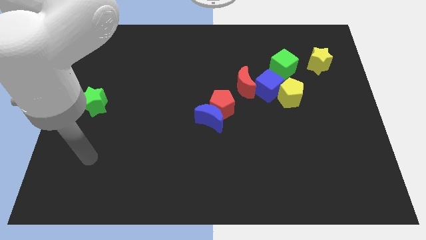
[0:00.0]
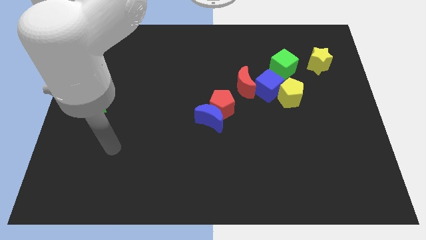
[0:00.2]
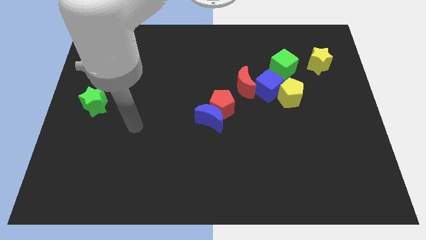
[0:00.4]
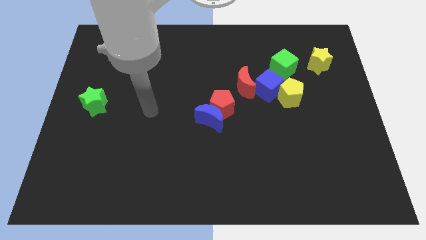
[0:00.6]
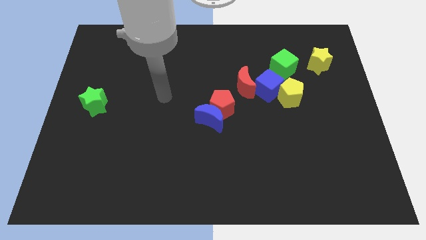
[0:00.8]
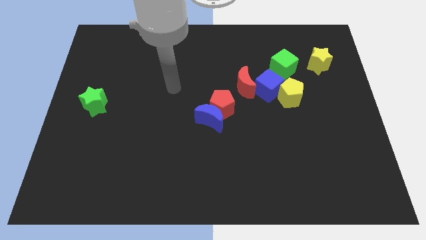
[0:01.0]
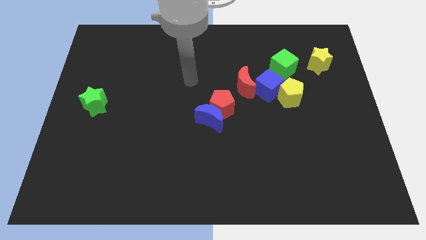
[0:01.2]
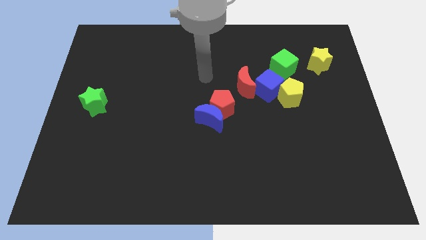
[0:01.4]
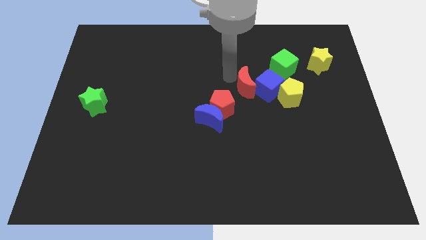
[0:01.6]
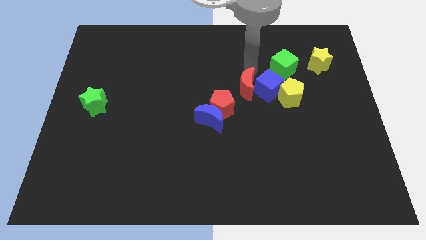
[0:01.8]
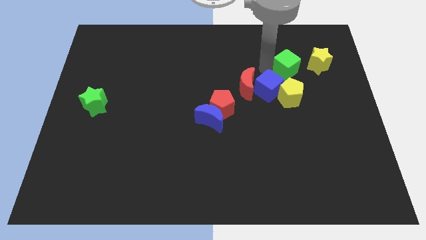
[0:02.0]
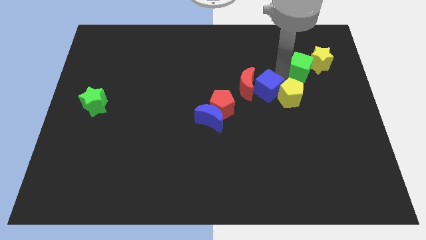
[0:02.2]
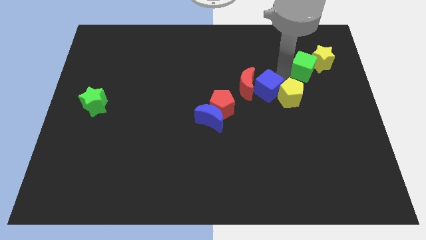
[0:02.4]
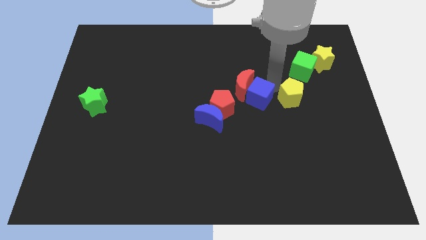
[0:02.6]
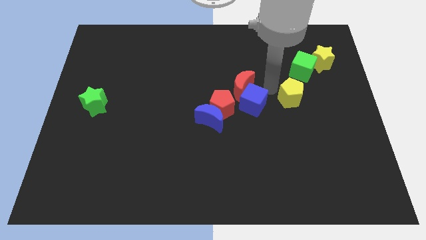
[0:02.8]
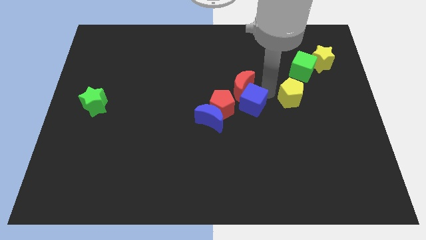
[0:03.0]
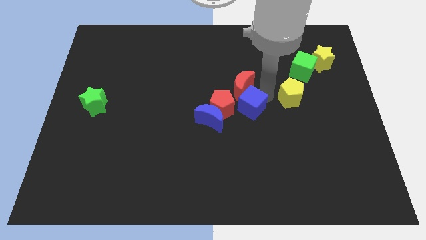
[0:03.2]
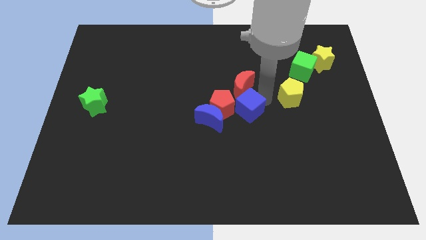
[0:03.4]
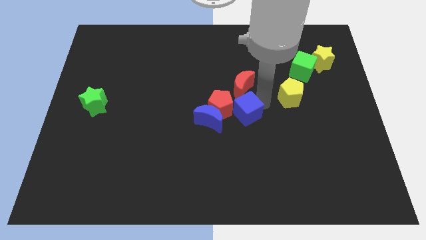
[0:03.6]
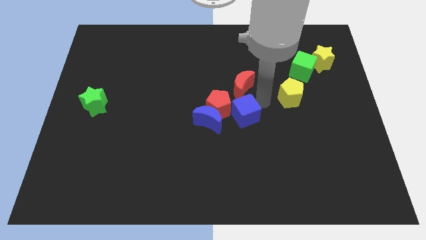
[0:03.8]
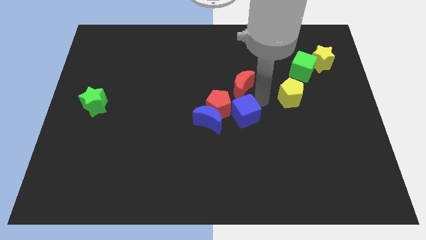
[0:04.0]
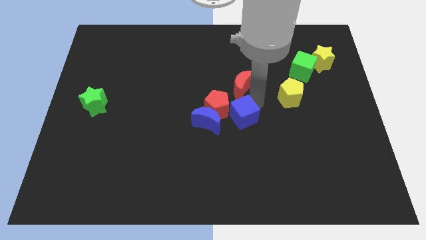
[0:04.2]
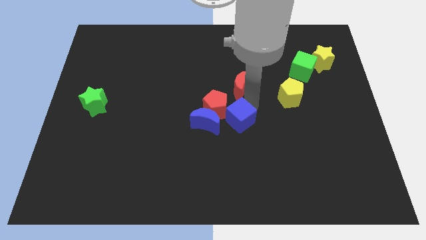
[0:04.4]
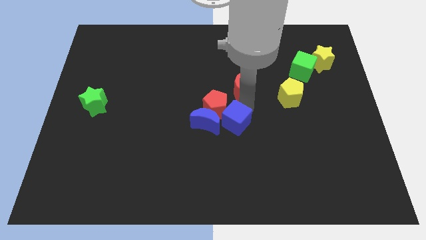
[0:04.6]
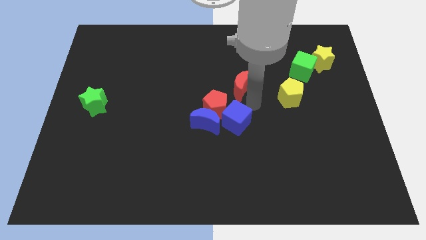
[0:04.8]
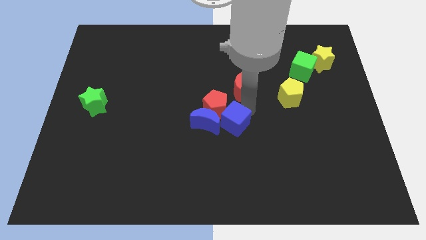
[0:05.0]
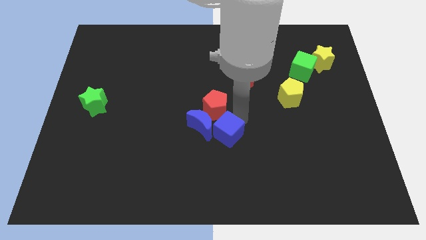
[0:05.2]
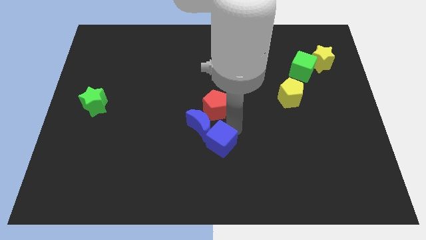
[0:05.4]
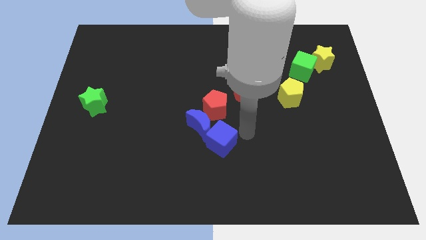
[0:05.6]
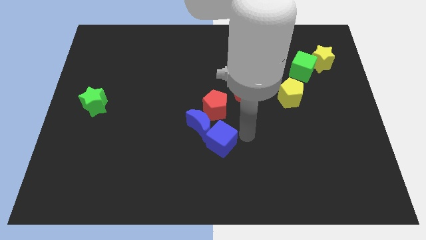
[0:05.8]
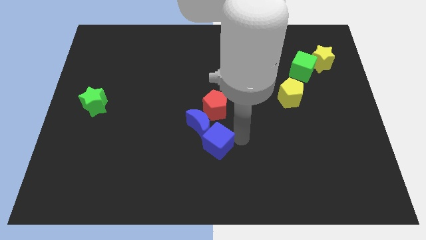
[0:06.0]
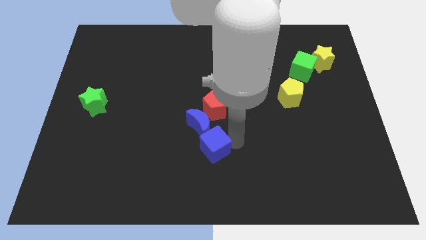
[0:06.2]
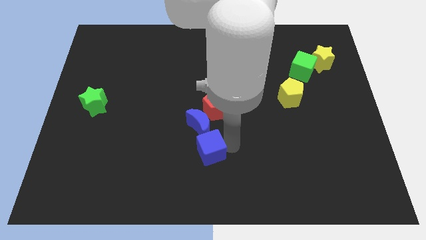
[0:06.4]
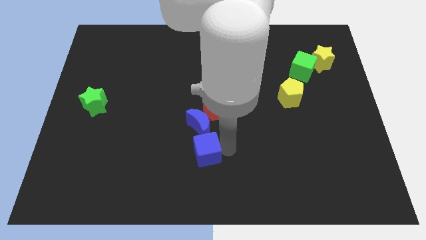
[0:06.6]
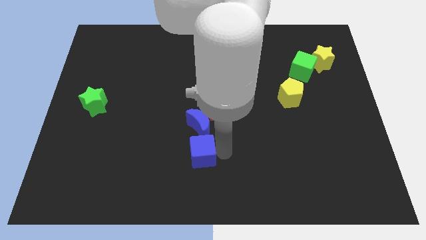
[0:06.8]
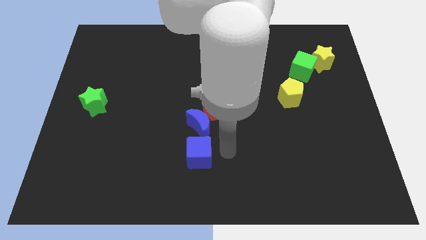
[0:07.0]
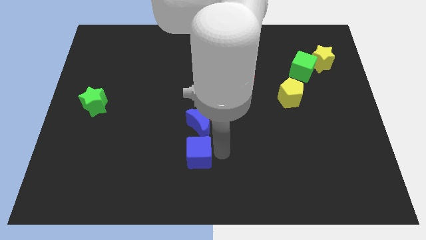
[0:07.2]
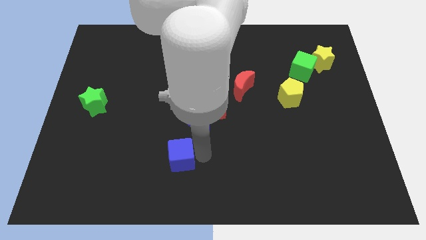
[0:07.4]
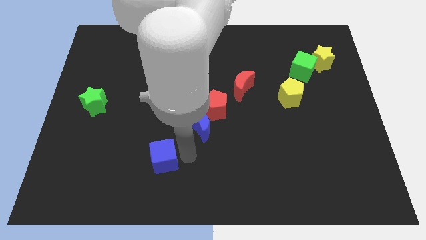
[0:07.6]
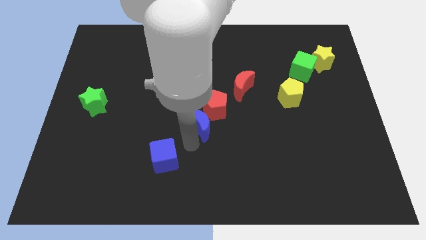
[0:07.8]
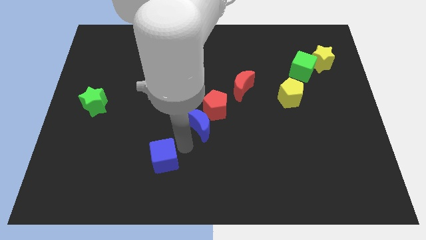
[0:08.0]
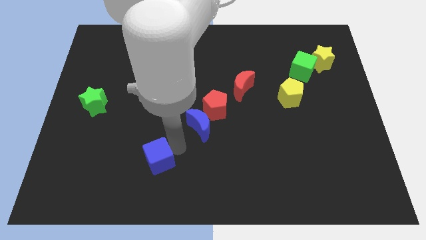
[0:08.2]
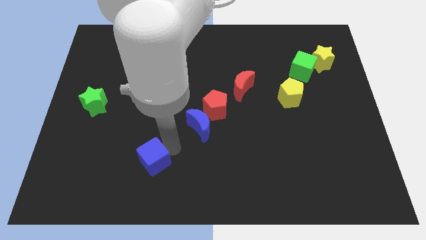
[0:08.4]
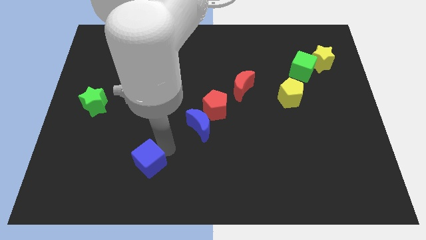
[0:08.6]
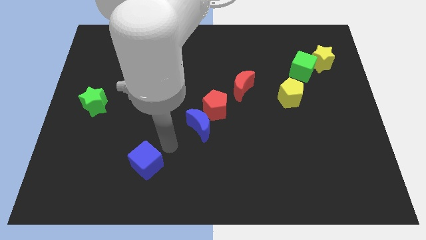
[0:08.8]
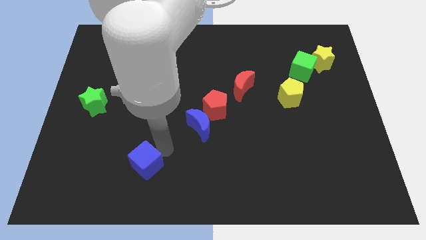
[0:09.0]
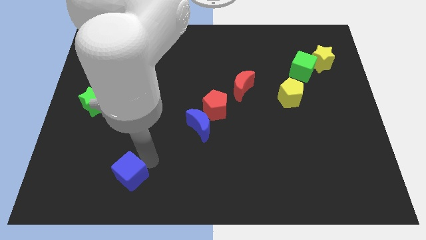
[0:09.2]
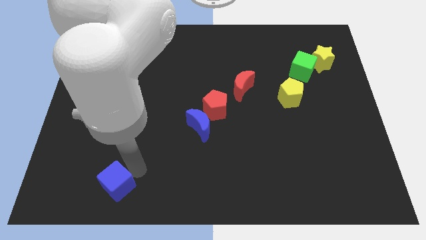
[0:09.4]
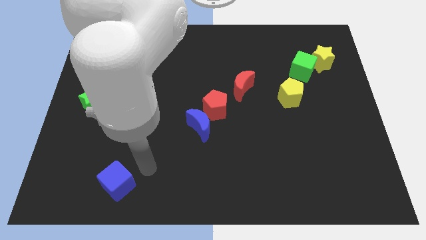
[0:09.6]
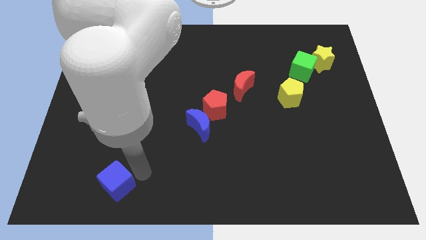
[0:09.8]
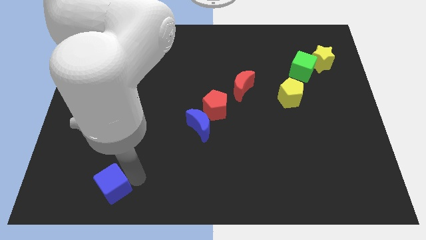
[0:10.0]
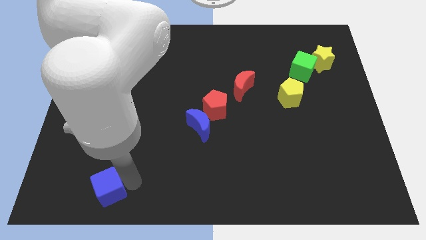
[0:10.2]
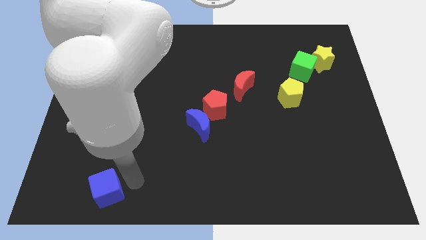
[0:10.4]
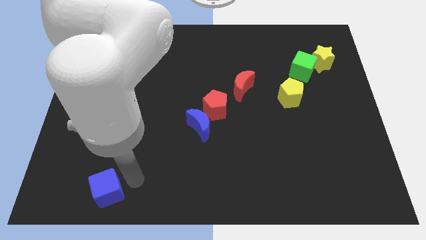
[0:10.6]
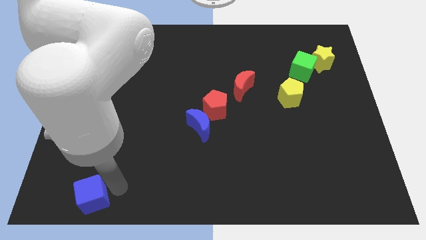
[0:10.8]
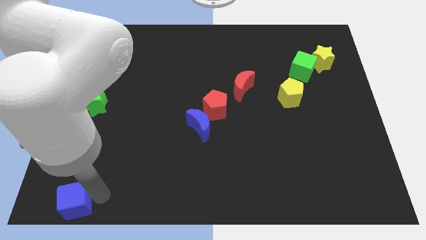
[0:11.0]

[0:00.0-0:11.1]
push the blue cube to the bottom left corner
